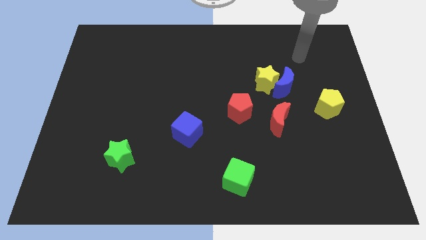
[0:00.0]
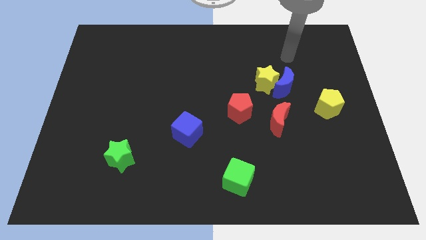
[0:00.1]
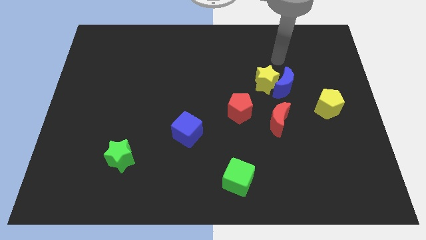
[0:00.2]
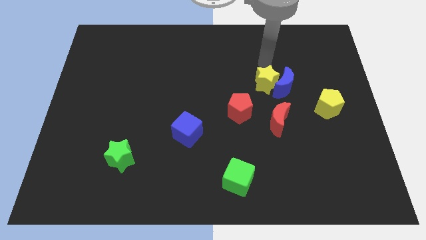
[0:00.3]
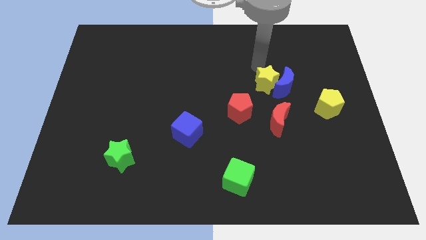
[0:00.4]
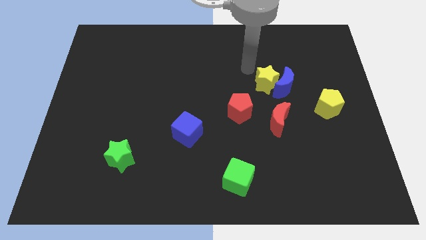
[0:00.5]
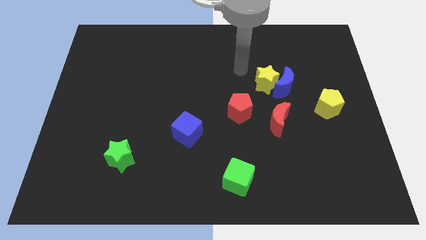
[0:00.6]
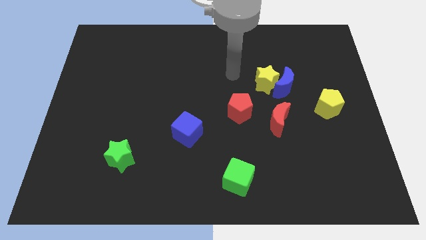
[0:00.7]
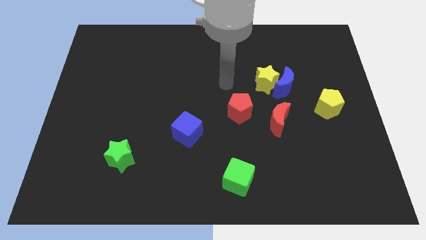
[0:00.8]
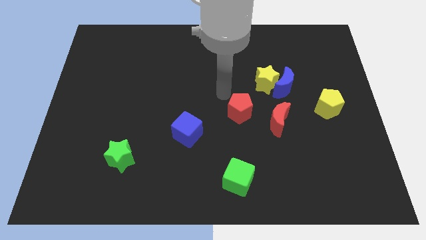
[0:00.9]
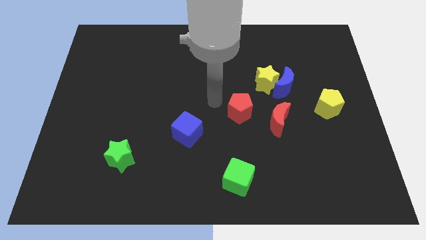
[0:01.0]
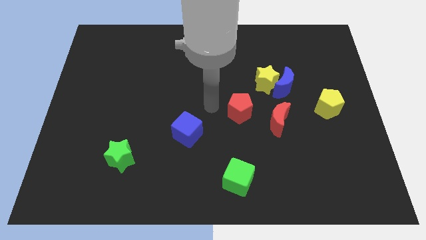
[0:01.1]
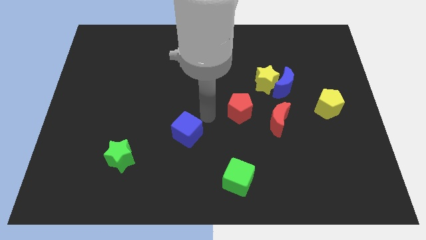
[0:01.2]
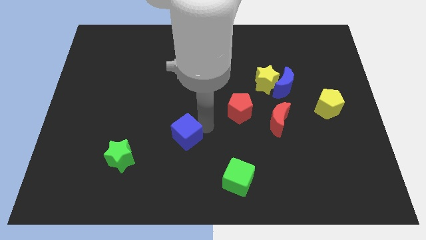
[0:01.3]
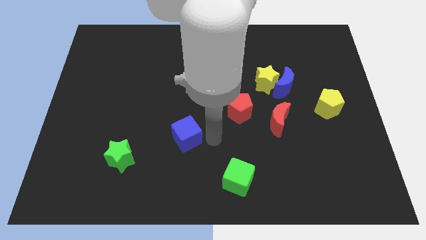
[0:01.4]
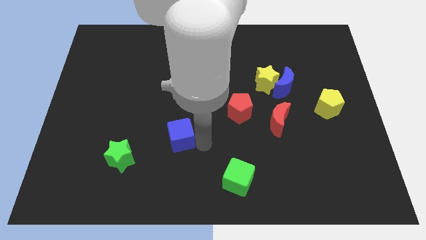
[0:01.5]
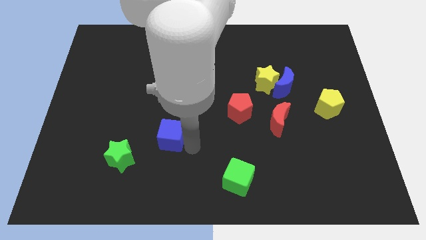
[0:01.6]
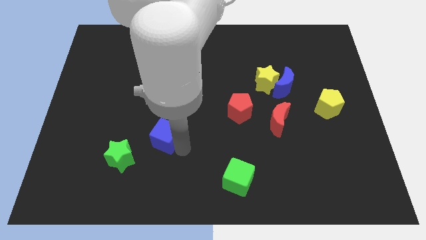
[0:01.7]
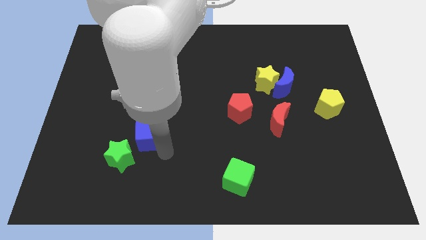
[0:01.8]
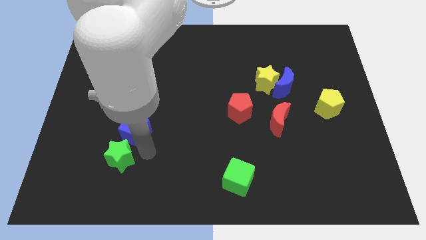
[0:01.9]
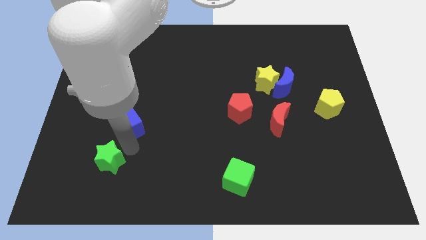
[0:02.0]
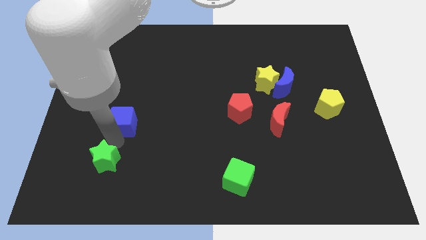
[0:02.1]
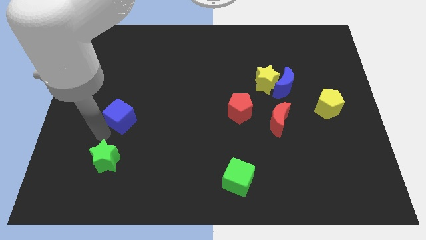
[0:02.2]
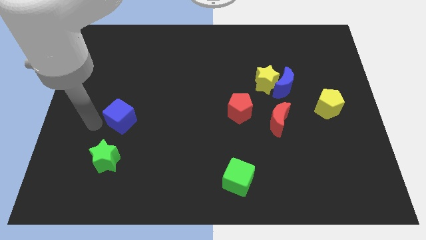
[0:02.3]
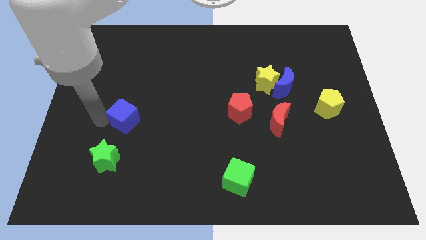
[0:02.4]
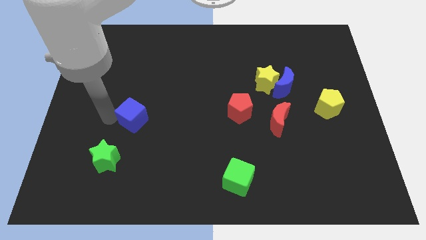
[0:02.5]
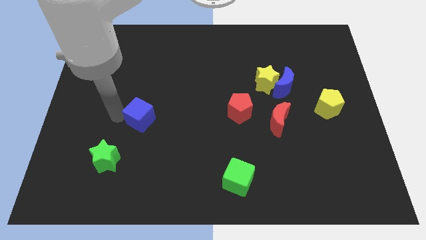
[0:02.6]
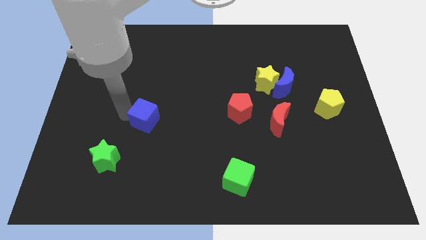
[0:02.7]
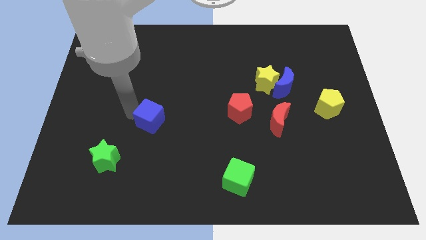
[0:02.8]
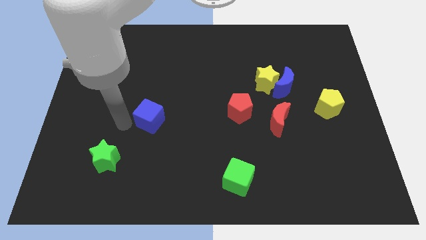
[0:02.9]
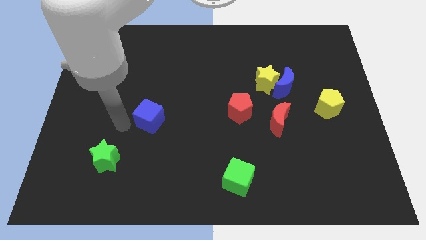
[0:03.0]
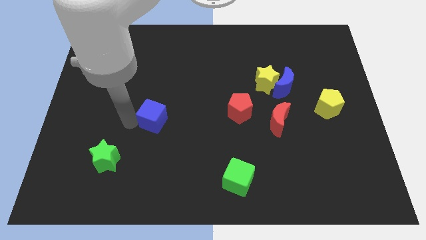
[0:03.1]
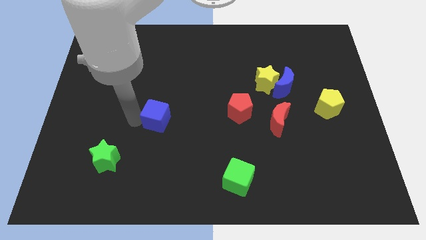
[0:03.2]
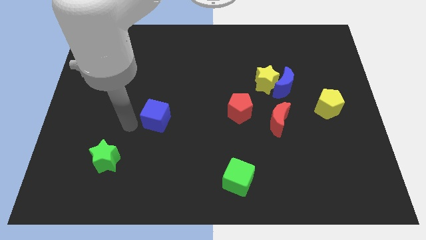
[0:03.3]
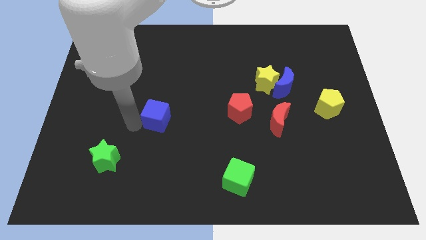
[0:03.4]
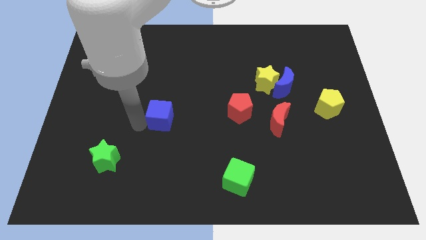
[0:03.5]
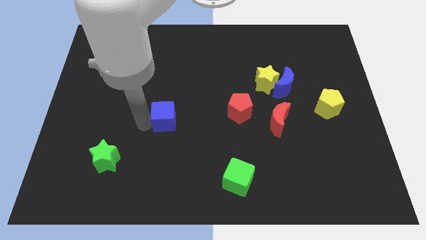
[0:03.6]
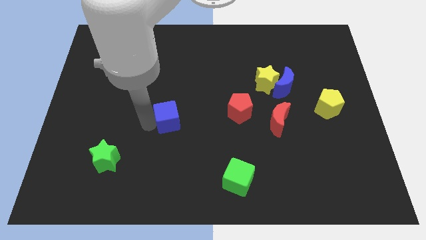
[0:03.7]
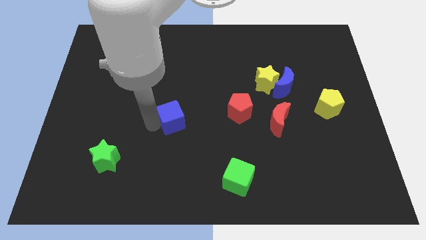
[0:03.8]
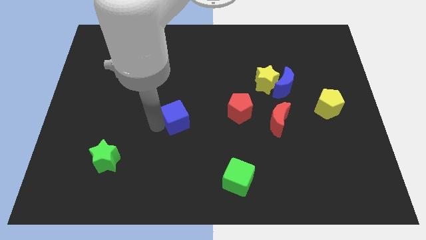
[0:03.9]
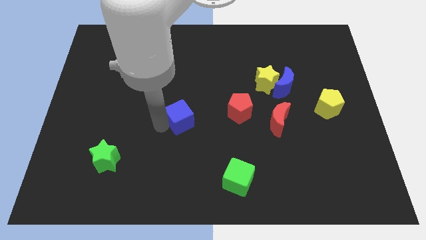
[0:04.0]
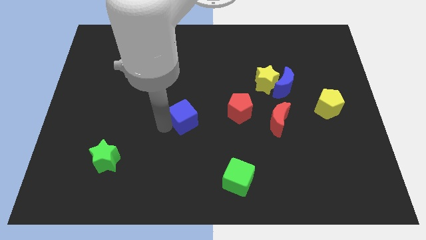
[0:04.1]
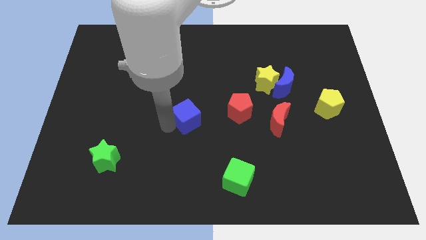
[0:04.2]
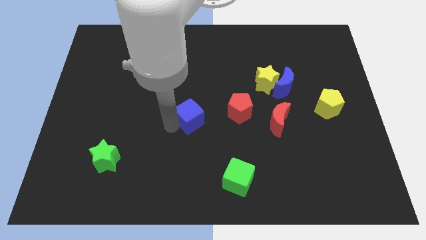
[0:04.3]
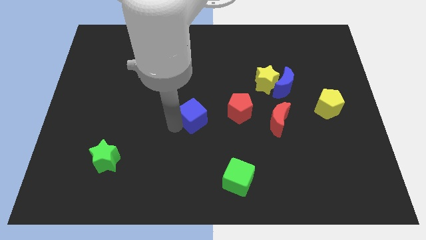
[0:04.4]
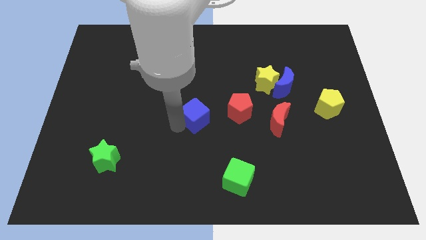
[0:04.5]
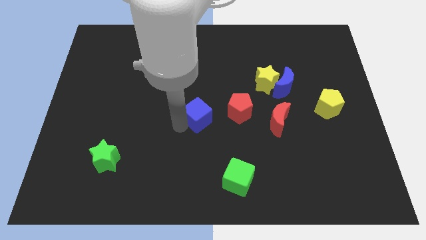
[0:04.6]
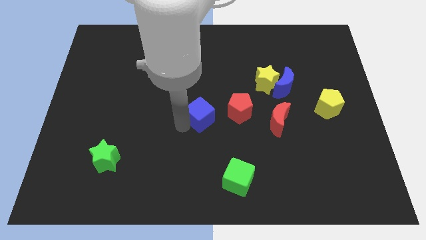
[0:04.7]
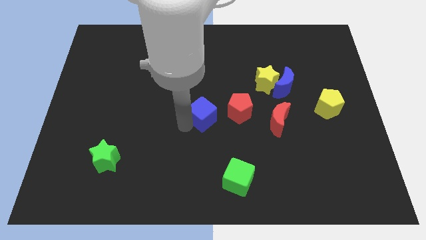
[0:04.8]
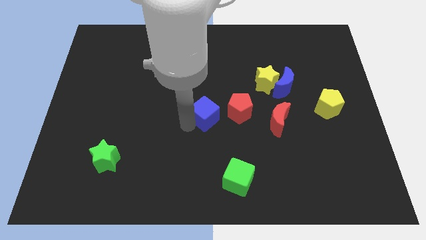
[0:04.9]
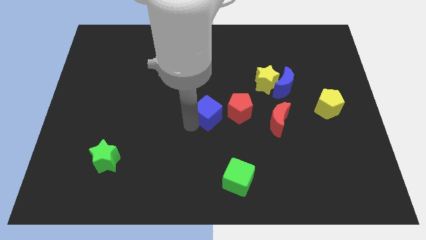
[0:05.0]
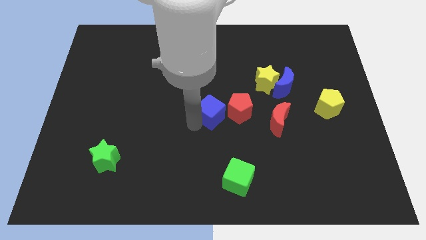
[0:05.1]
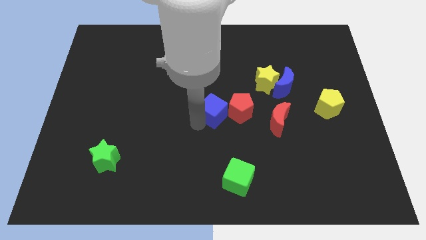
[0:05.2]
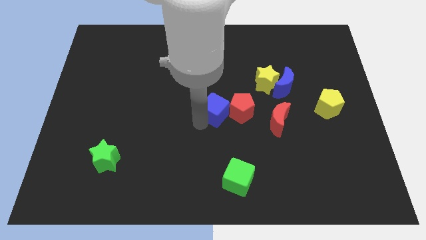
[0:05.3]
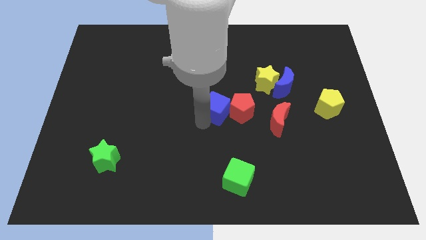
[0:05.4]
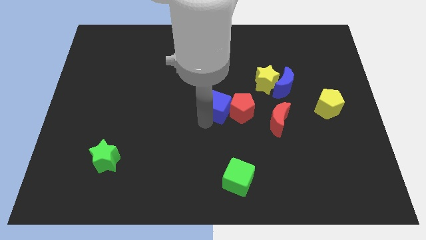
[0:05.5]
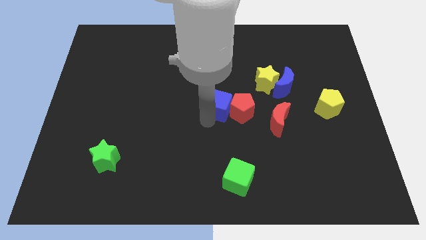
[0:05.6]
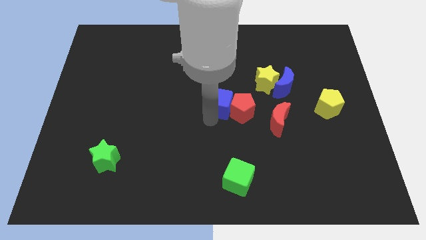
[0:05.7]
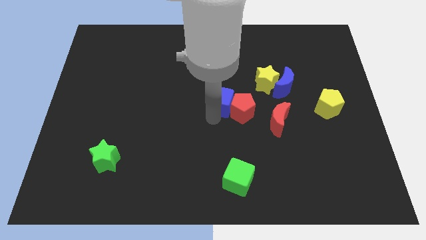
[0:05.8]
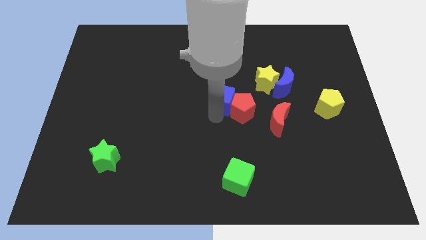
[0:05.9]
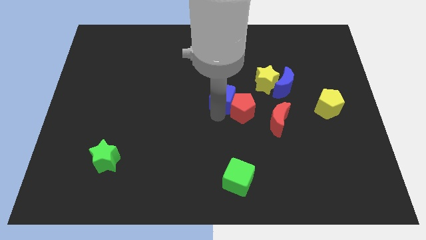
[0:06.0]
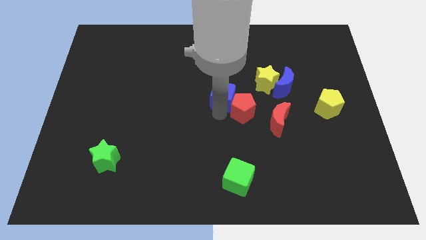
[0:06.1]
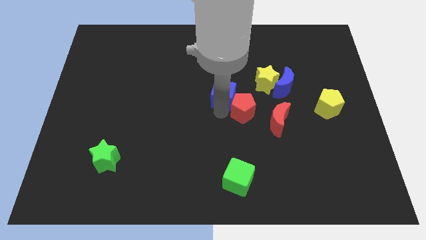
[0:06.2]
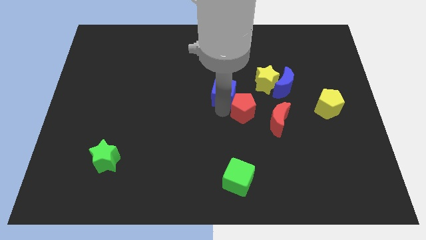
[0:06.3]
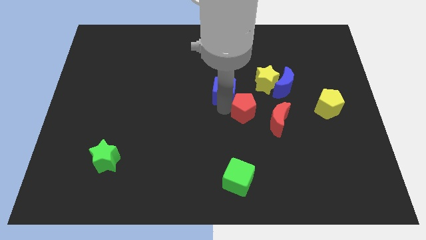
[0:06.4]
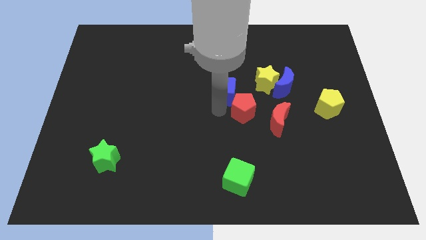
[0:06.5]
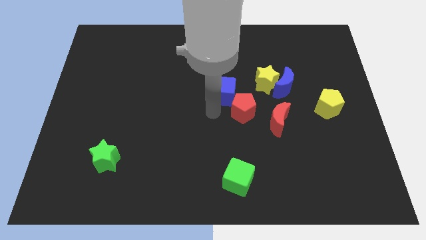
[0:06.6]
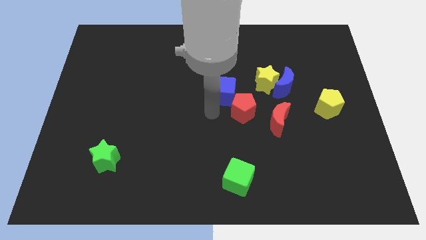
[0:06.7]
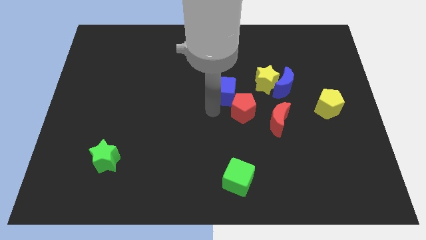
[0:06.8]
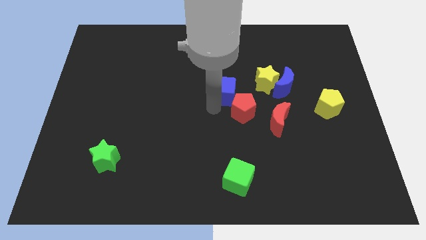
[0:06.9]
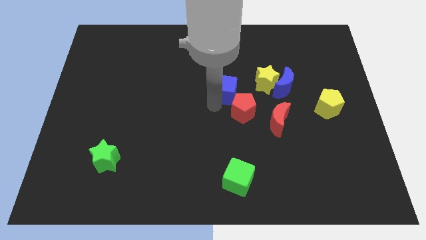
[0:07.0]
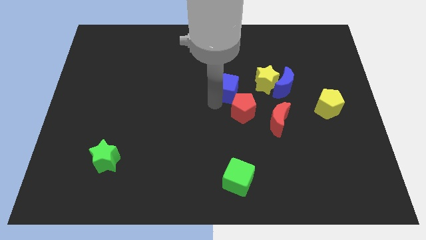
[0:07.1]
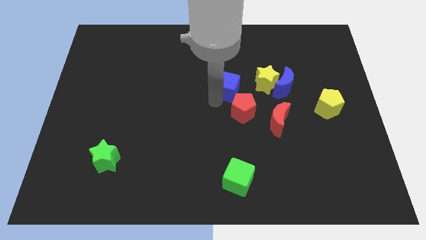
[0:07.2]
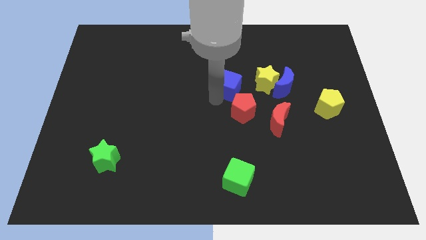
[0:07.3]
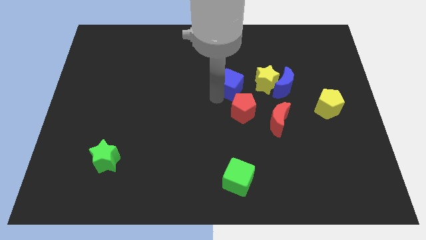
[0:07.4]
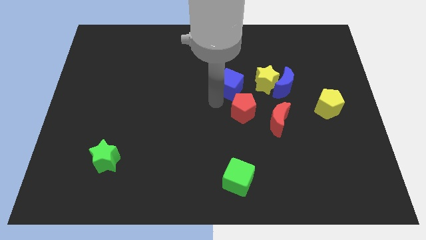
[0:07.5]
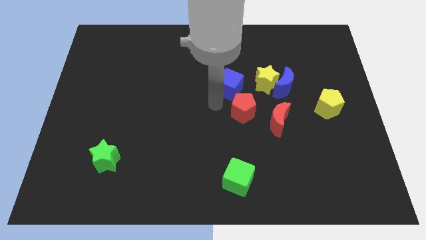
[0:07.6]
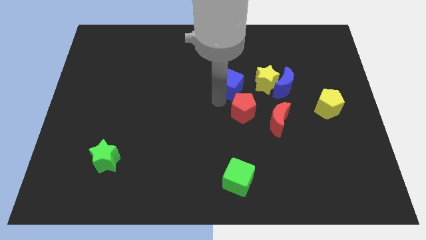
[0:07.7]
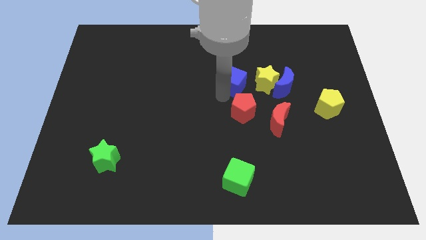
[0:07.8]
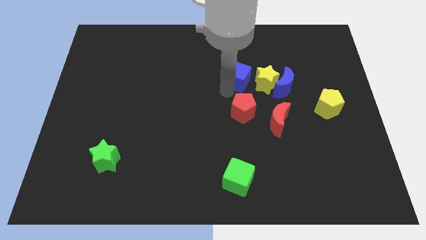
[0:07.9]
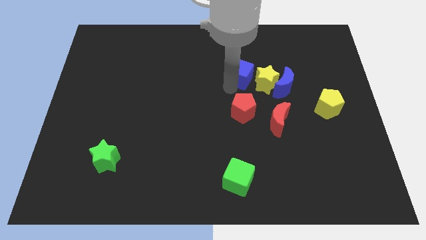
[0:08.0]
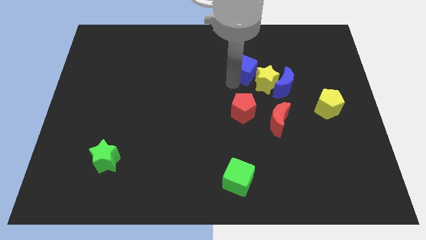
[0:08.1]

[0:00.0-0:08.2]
push the blue cube to the top left side of the blue moon
